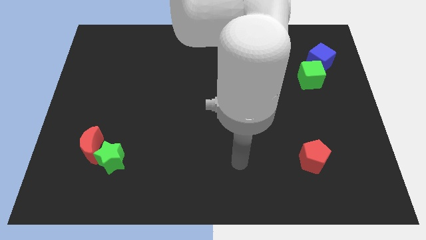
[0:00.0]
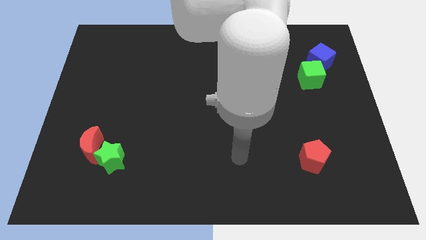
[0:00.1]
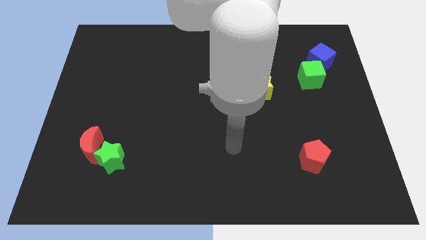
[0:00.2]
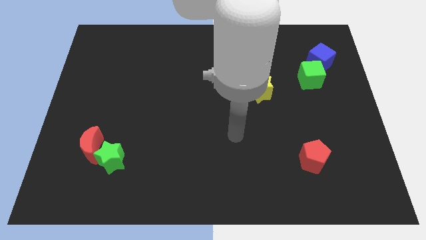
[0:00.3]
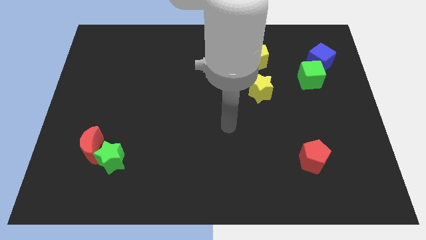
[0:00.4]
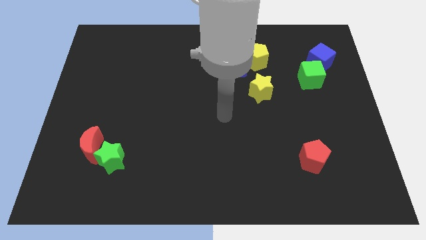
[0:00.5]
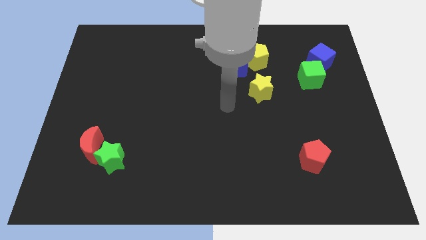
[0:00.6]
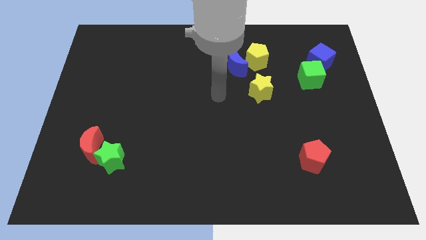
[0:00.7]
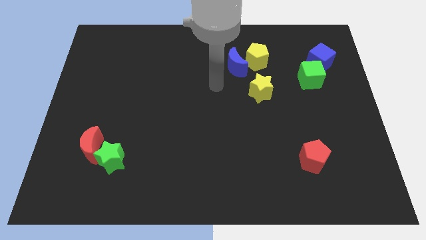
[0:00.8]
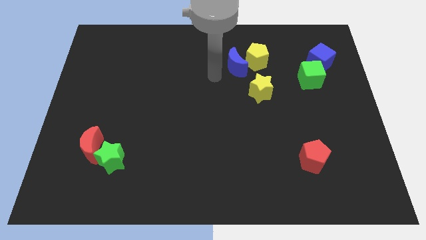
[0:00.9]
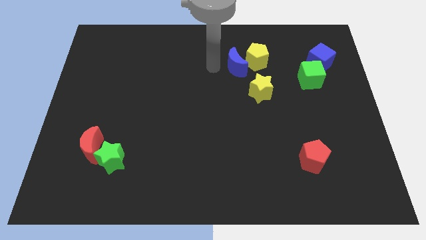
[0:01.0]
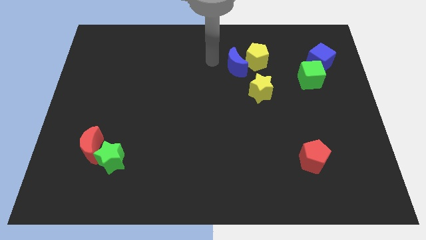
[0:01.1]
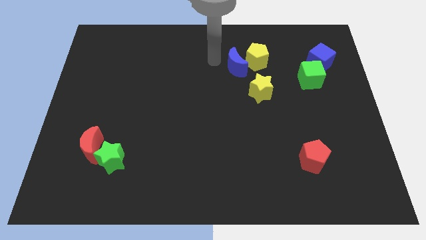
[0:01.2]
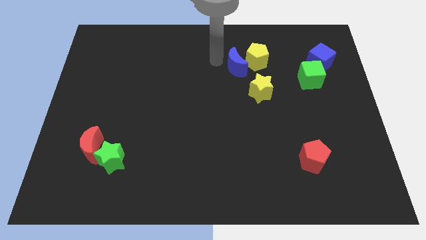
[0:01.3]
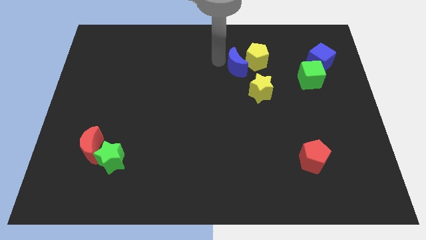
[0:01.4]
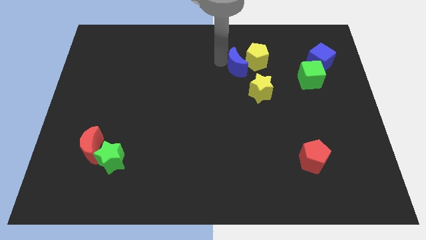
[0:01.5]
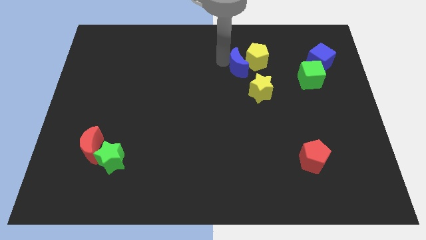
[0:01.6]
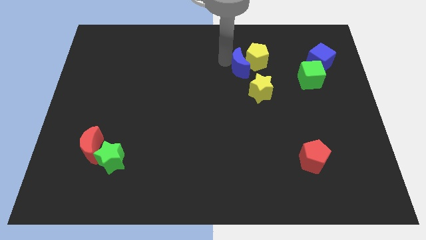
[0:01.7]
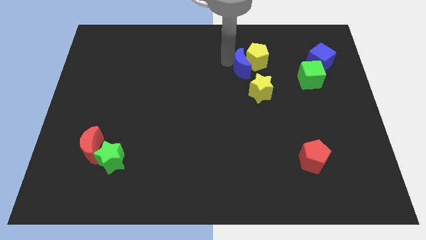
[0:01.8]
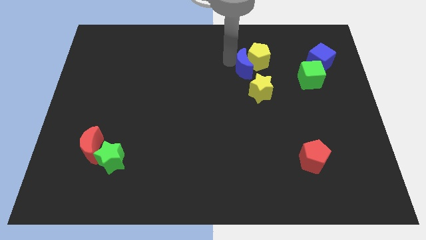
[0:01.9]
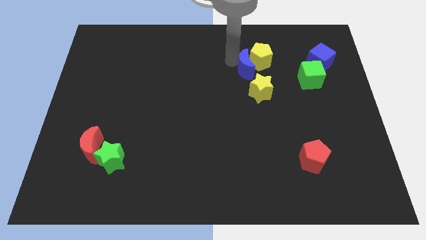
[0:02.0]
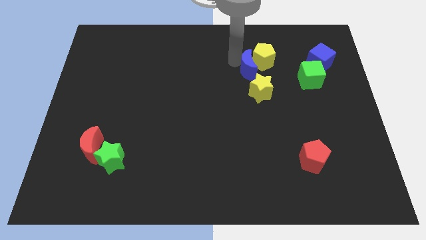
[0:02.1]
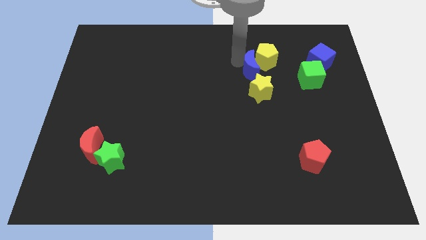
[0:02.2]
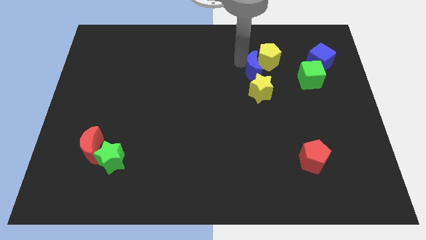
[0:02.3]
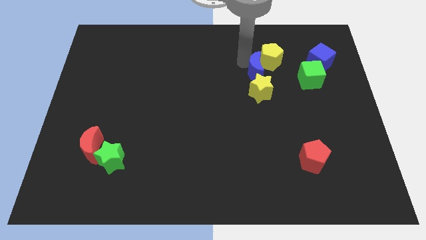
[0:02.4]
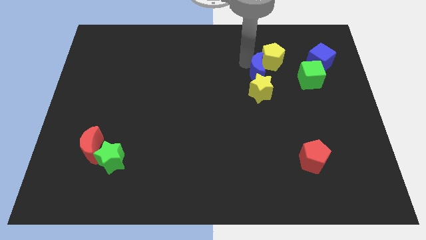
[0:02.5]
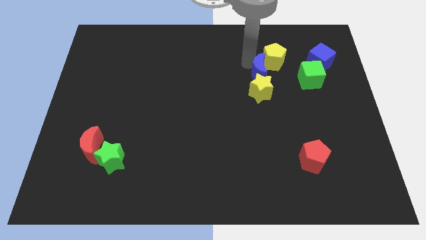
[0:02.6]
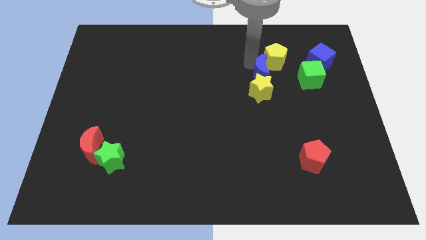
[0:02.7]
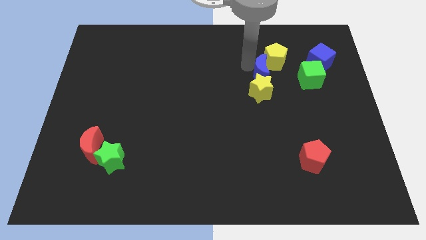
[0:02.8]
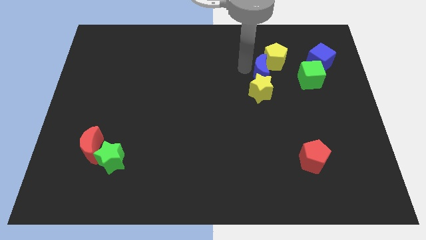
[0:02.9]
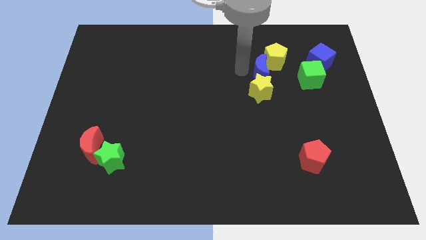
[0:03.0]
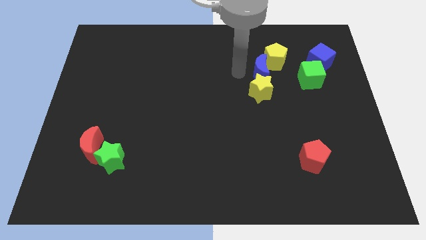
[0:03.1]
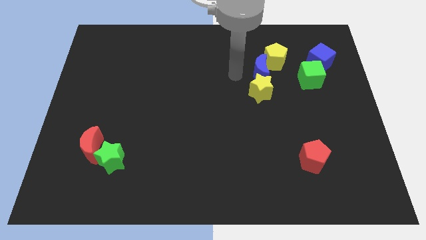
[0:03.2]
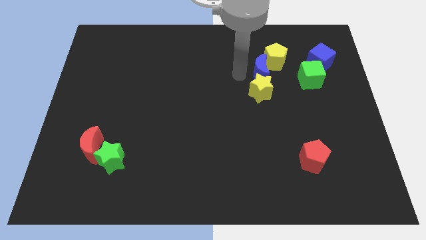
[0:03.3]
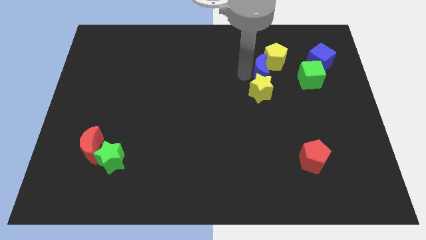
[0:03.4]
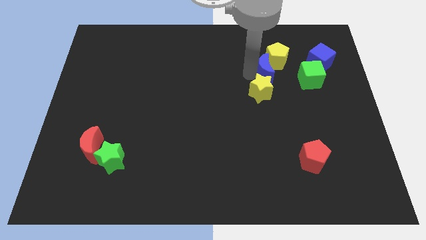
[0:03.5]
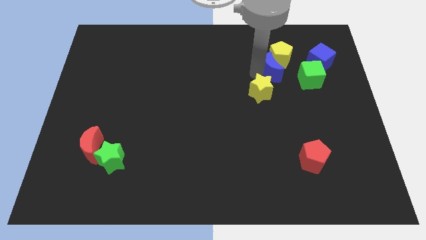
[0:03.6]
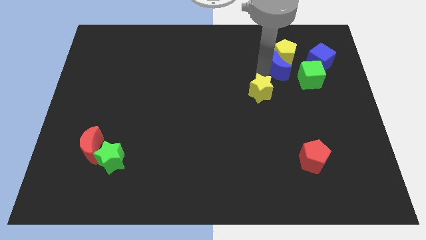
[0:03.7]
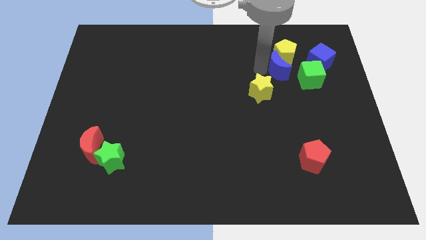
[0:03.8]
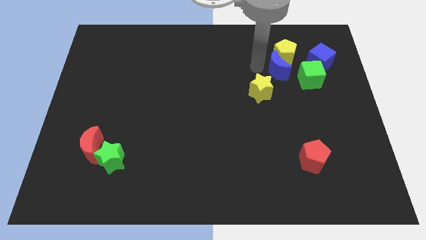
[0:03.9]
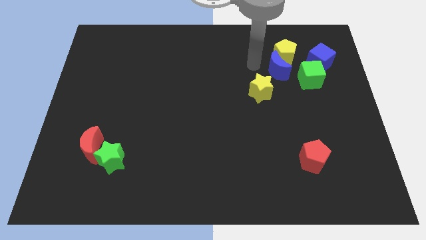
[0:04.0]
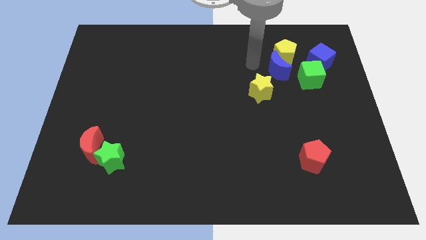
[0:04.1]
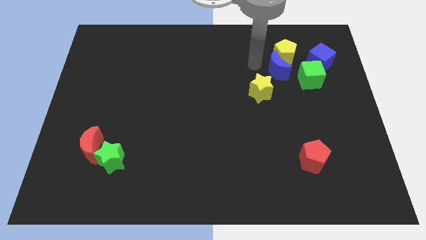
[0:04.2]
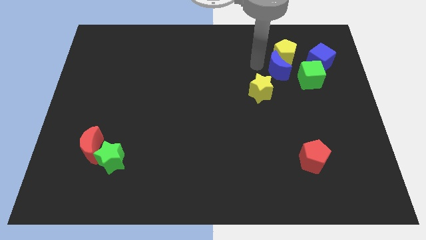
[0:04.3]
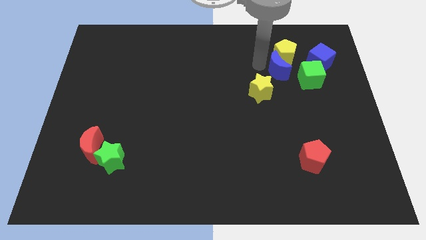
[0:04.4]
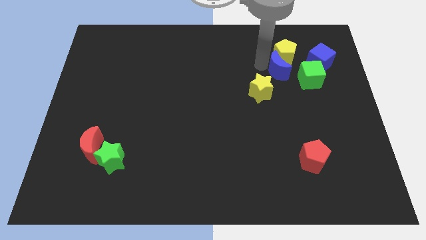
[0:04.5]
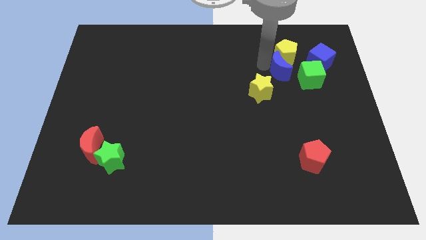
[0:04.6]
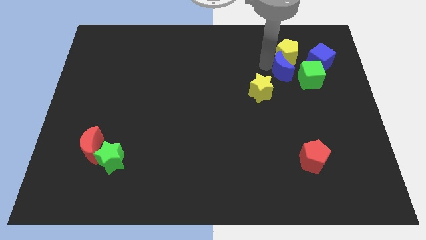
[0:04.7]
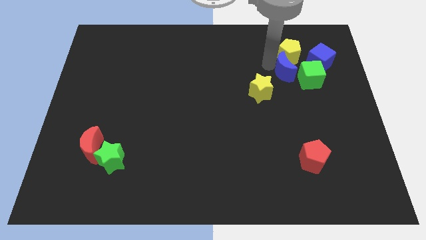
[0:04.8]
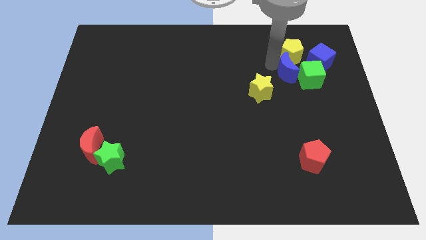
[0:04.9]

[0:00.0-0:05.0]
move the blue moon next to the green cube

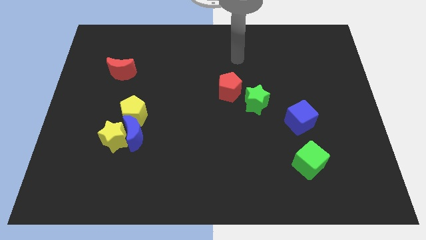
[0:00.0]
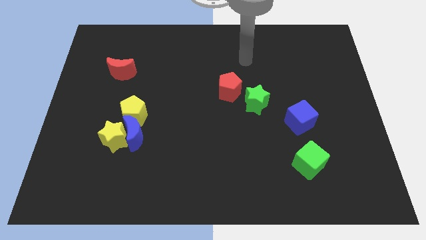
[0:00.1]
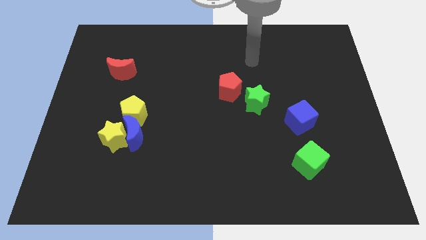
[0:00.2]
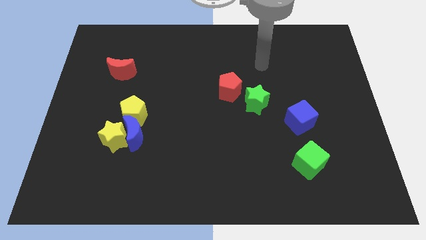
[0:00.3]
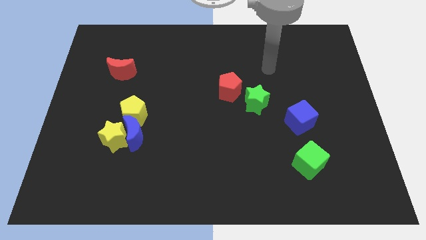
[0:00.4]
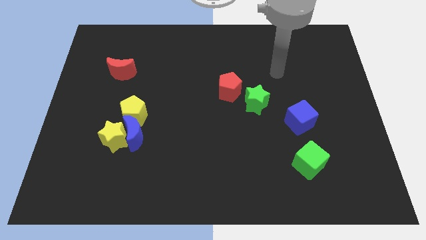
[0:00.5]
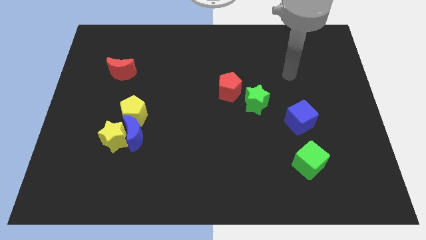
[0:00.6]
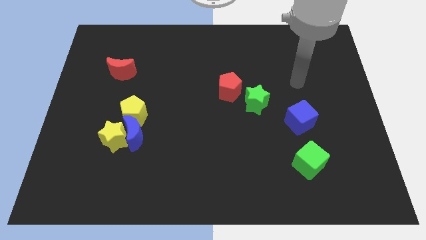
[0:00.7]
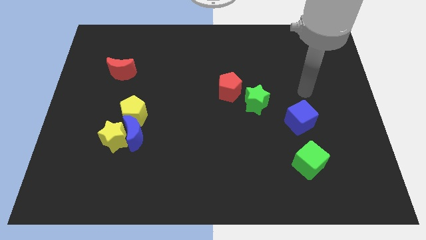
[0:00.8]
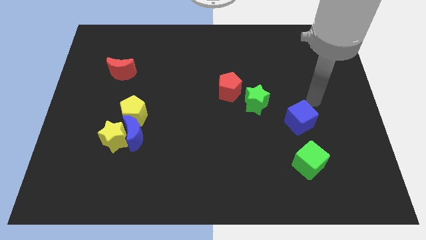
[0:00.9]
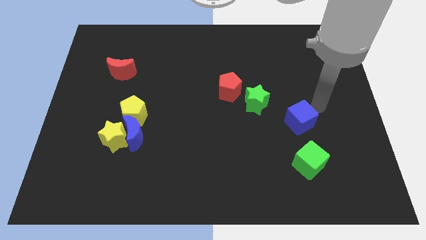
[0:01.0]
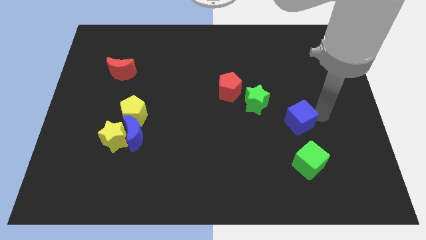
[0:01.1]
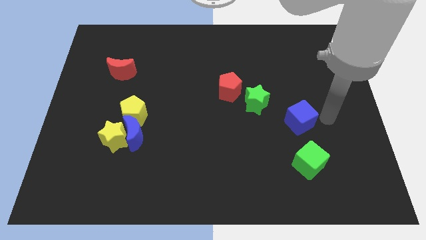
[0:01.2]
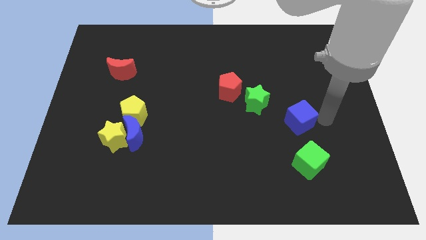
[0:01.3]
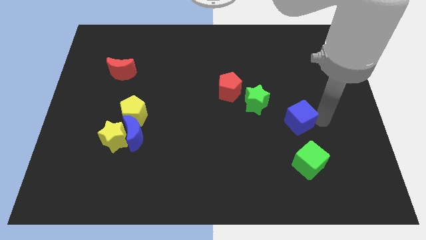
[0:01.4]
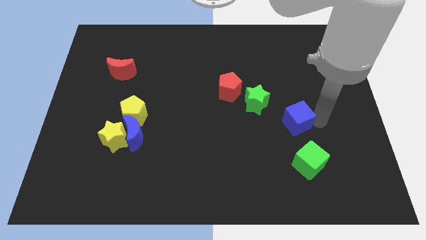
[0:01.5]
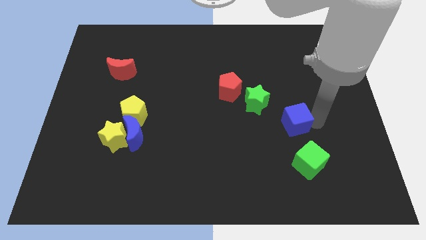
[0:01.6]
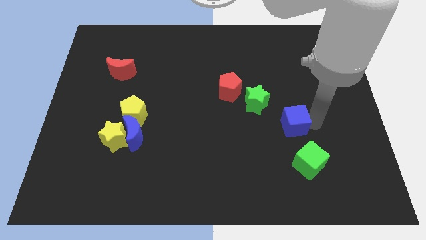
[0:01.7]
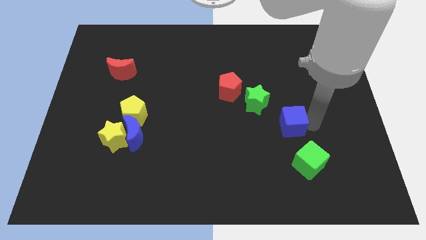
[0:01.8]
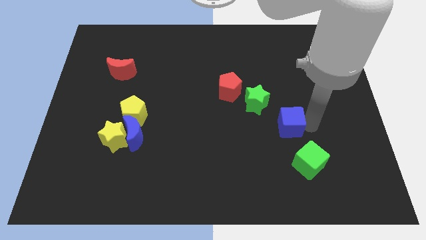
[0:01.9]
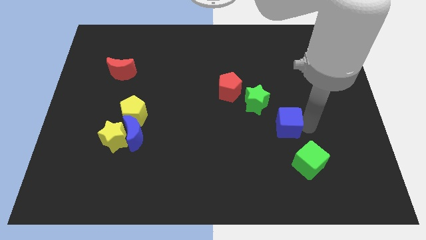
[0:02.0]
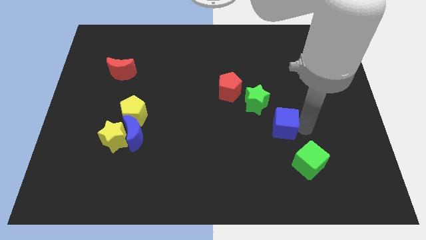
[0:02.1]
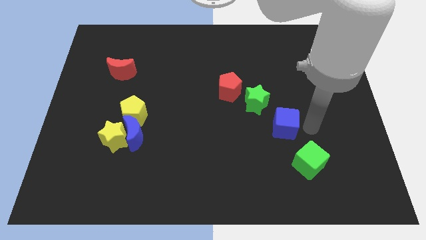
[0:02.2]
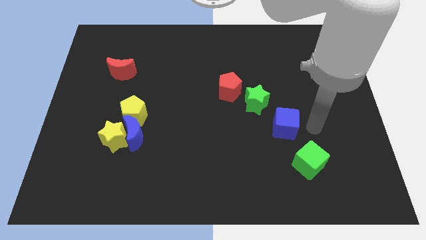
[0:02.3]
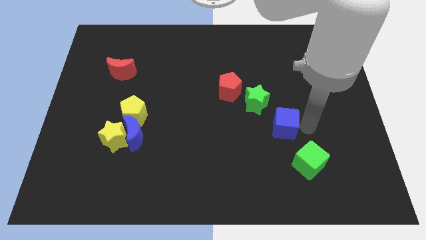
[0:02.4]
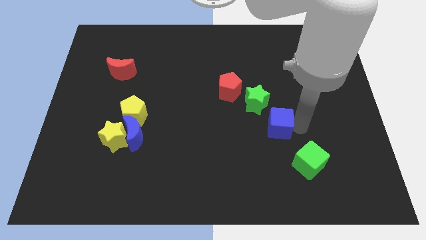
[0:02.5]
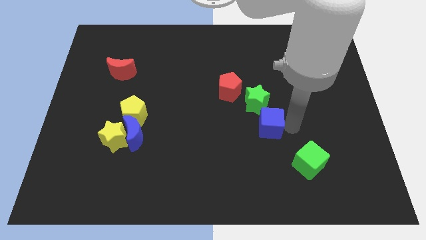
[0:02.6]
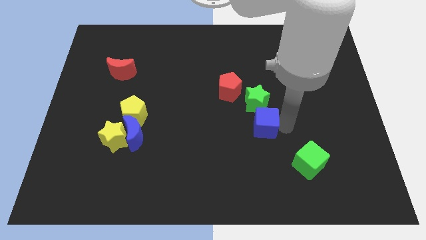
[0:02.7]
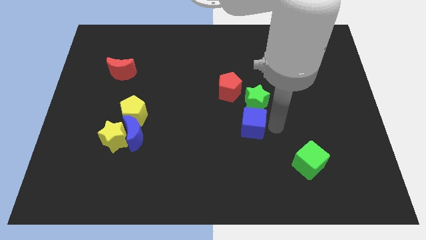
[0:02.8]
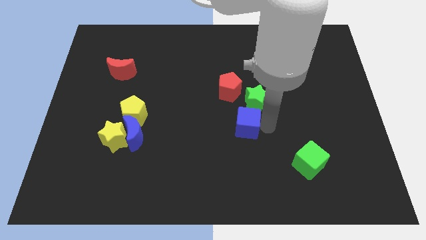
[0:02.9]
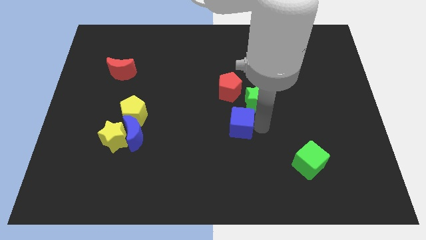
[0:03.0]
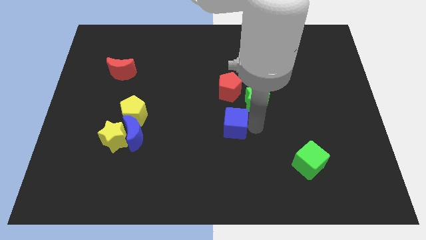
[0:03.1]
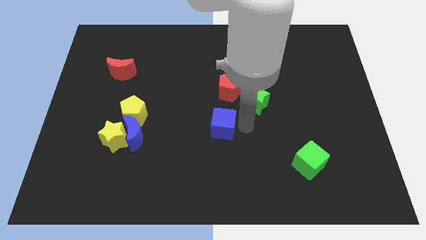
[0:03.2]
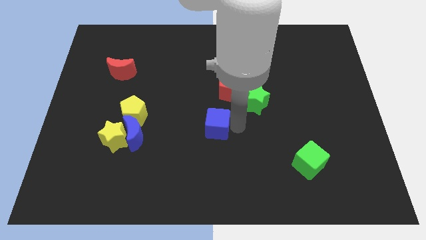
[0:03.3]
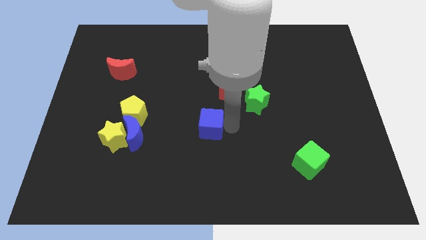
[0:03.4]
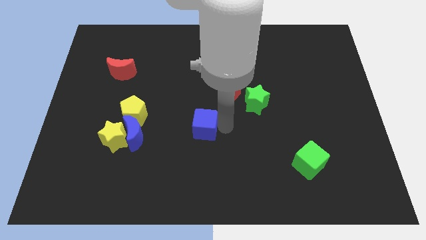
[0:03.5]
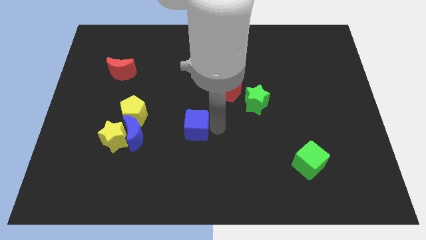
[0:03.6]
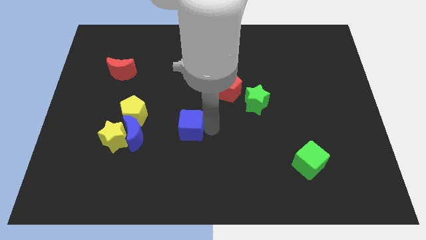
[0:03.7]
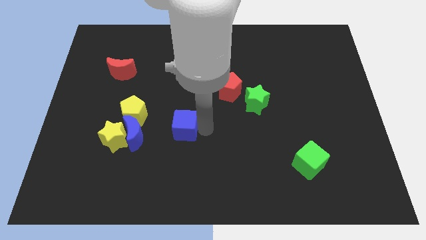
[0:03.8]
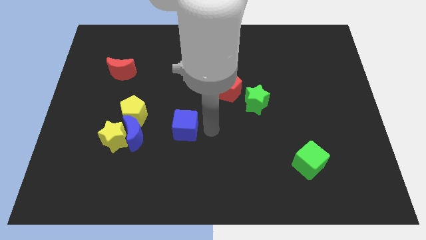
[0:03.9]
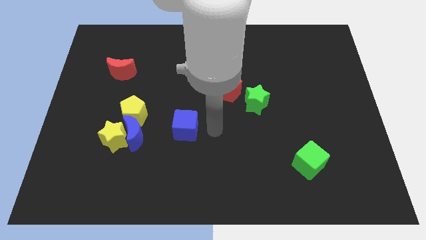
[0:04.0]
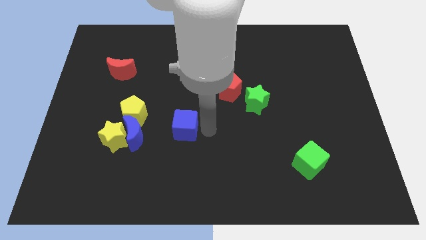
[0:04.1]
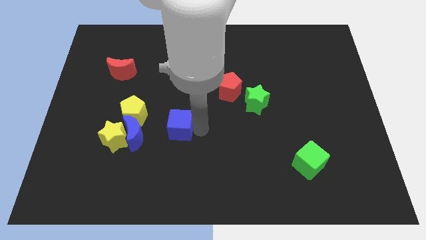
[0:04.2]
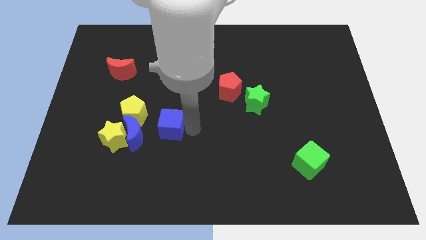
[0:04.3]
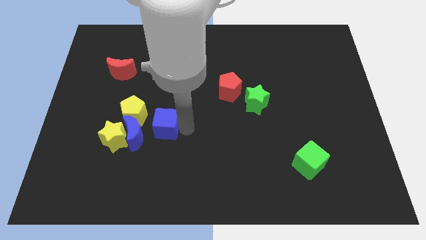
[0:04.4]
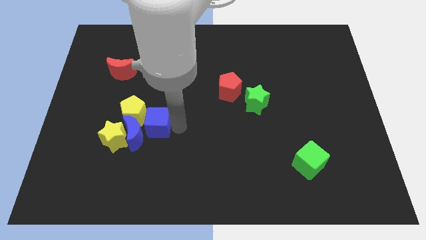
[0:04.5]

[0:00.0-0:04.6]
move the blue cube towards the blue moon
